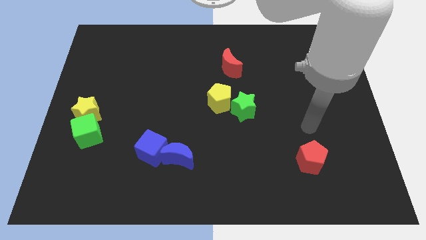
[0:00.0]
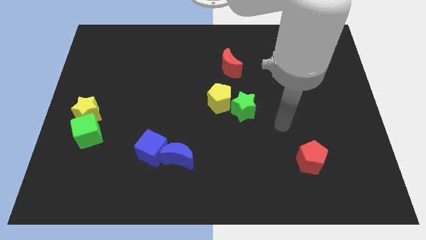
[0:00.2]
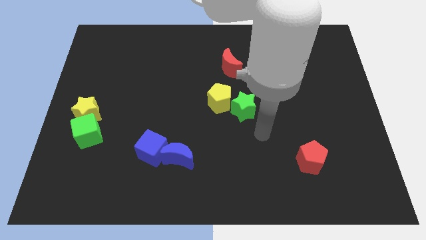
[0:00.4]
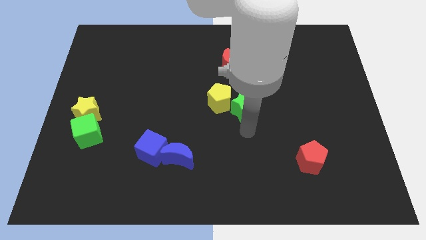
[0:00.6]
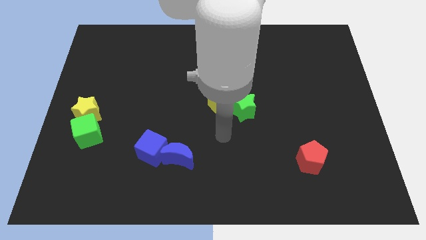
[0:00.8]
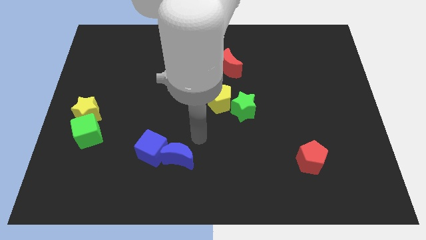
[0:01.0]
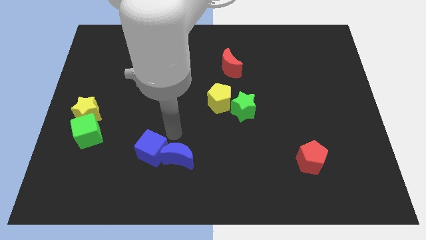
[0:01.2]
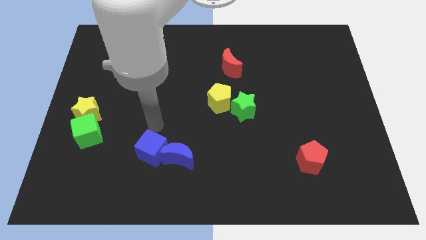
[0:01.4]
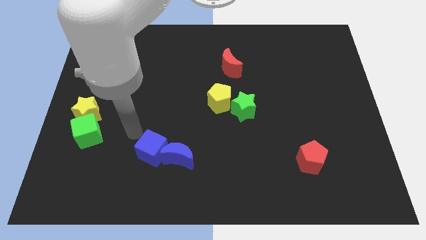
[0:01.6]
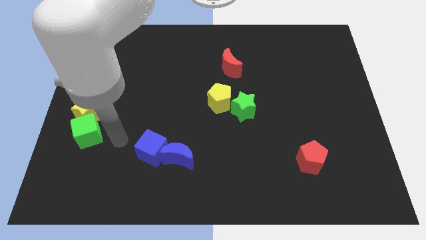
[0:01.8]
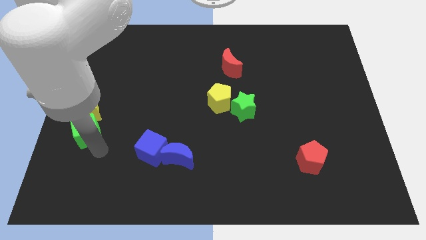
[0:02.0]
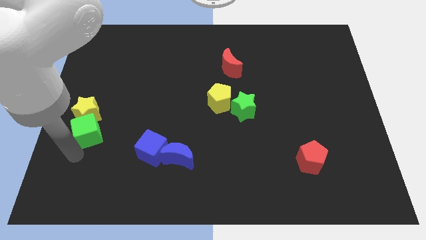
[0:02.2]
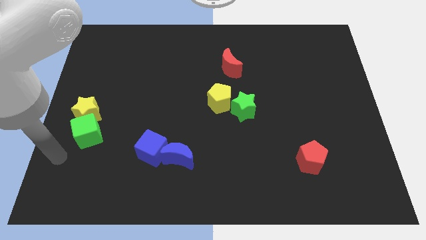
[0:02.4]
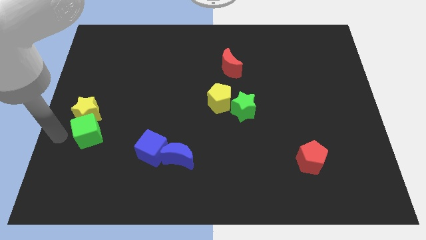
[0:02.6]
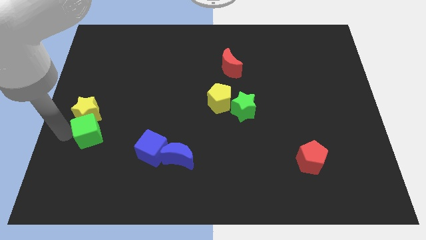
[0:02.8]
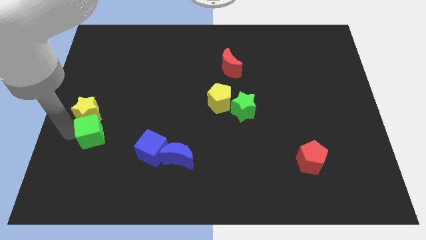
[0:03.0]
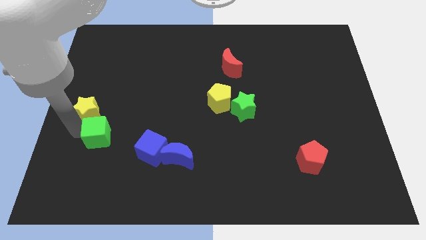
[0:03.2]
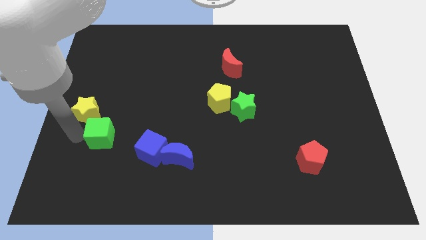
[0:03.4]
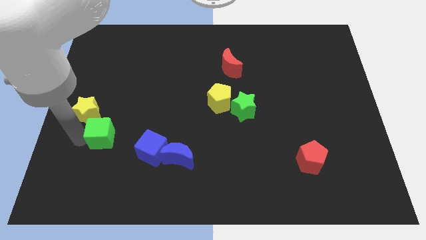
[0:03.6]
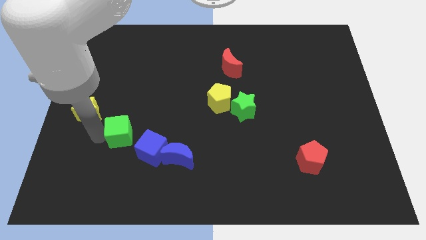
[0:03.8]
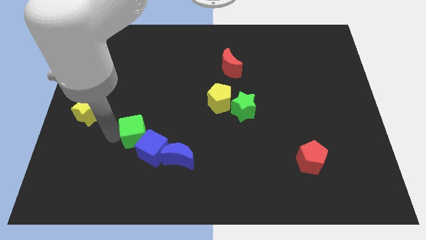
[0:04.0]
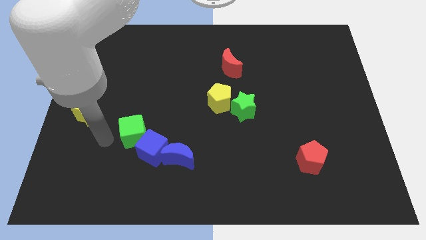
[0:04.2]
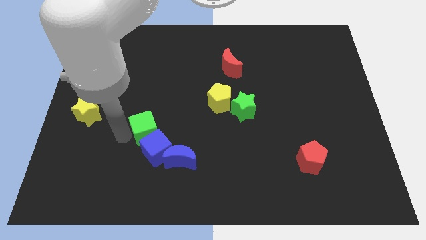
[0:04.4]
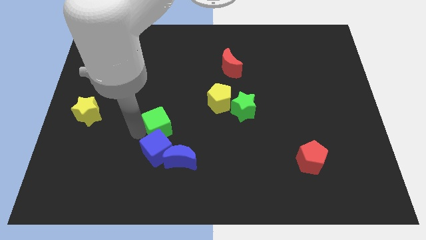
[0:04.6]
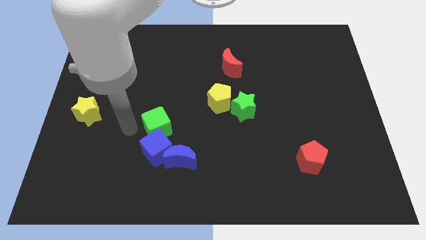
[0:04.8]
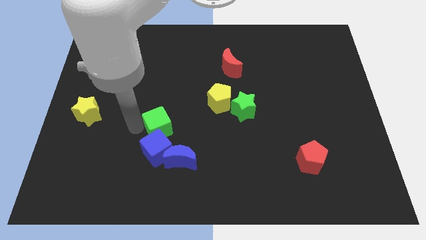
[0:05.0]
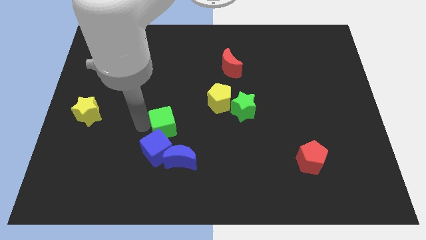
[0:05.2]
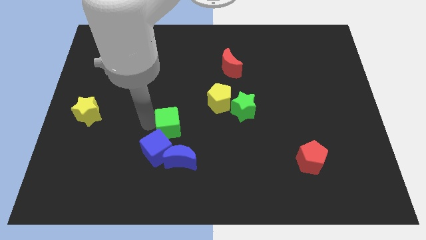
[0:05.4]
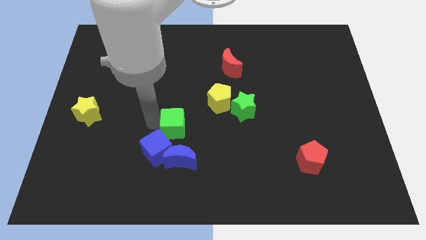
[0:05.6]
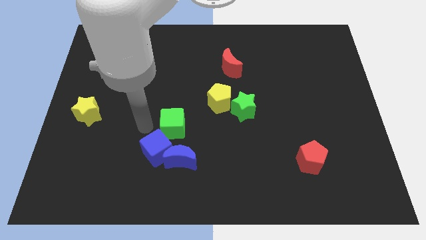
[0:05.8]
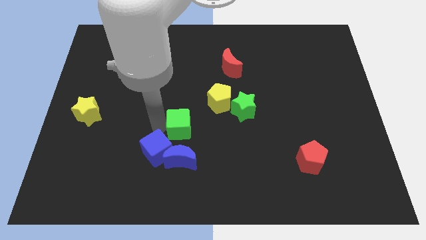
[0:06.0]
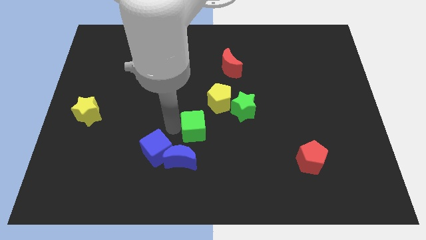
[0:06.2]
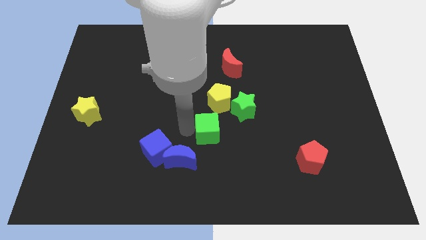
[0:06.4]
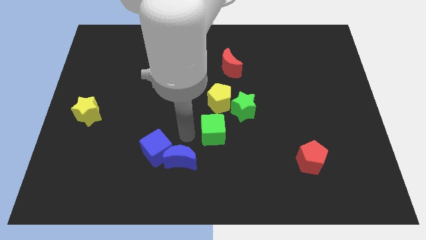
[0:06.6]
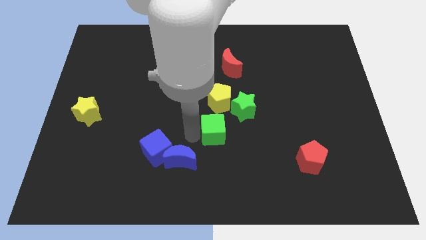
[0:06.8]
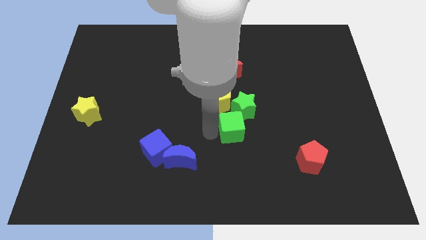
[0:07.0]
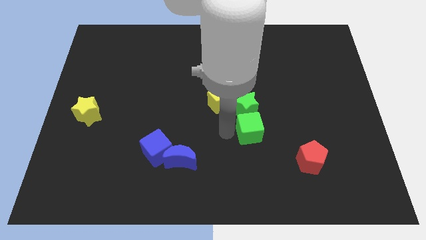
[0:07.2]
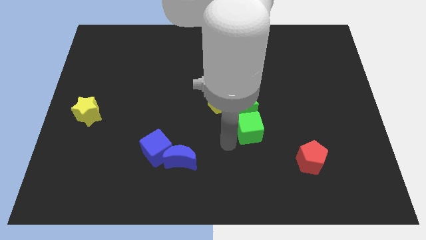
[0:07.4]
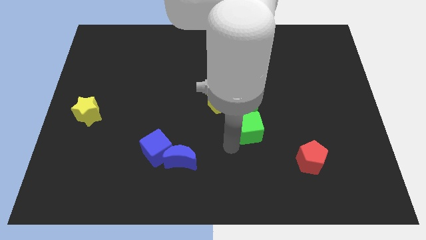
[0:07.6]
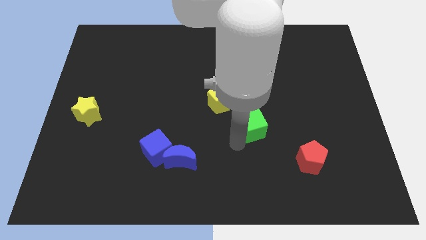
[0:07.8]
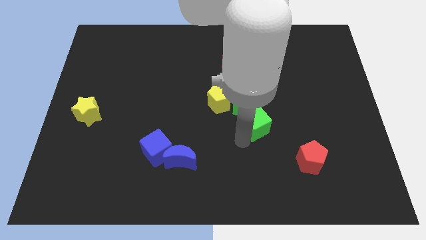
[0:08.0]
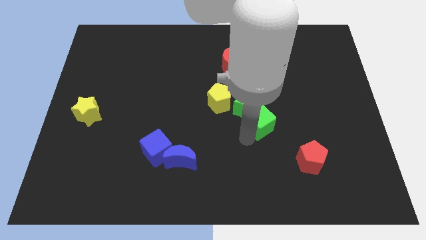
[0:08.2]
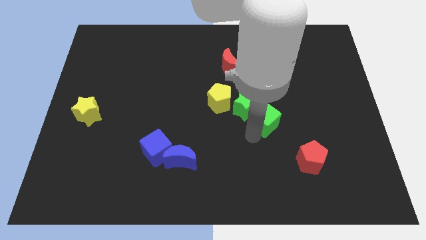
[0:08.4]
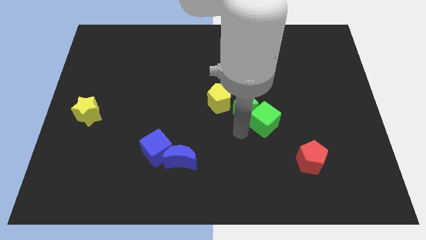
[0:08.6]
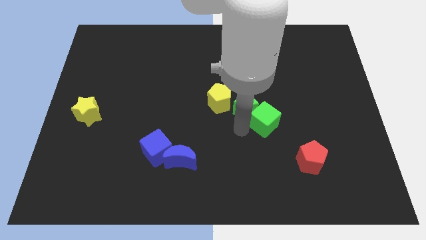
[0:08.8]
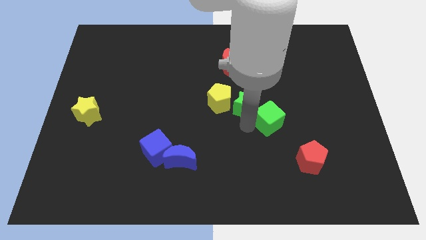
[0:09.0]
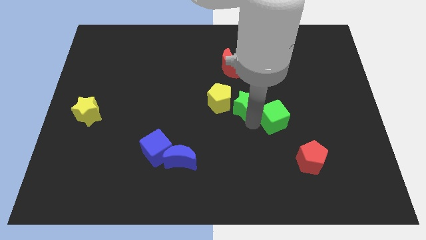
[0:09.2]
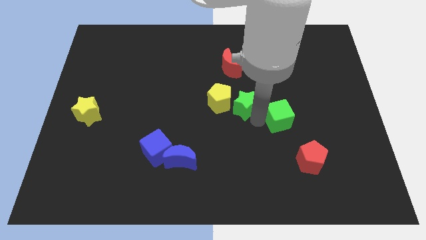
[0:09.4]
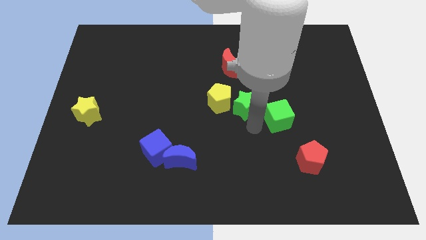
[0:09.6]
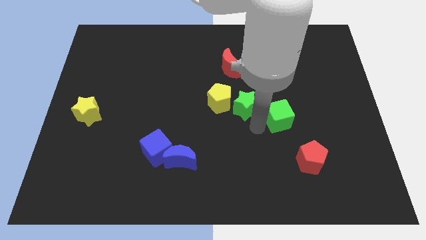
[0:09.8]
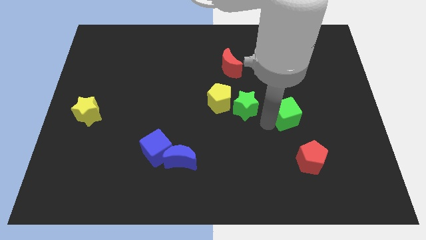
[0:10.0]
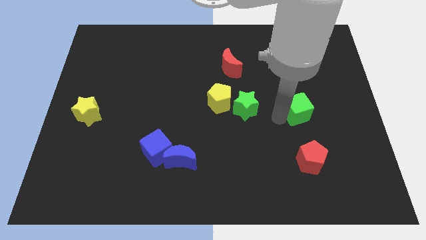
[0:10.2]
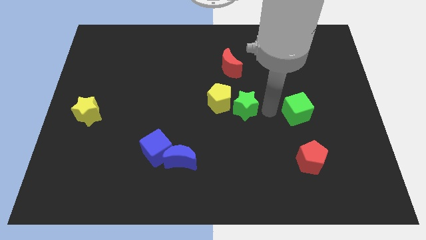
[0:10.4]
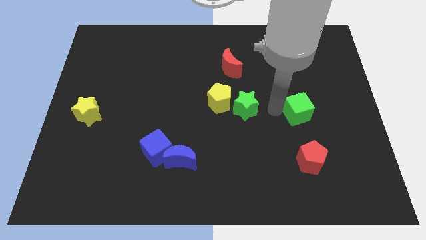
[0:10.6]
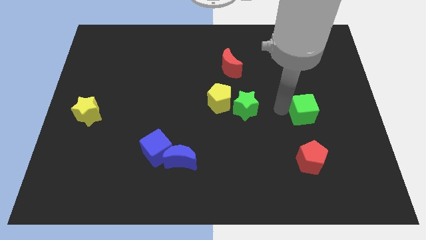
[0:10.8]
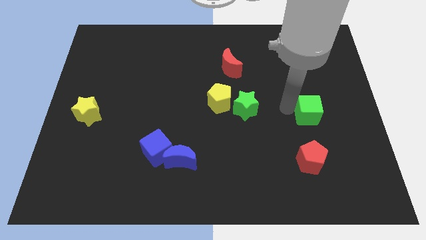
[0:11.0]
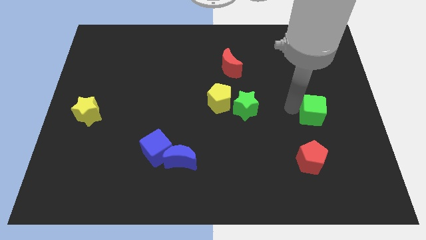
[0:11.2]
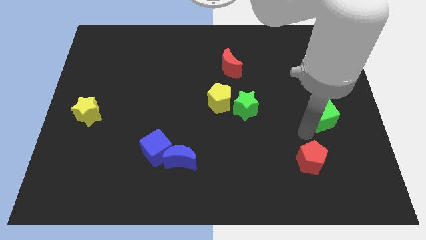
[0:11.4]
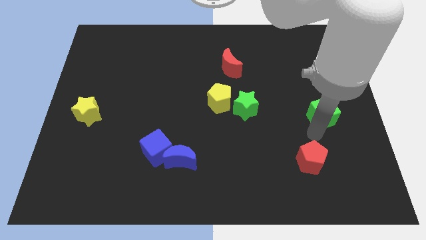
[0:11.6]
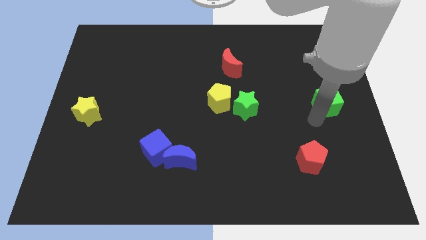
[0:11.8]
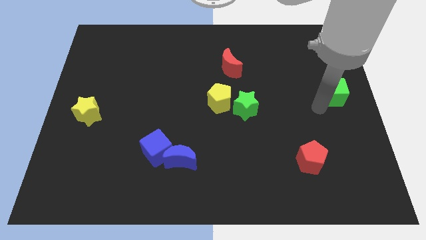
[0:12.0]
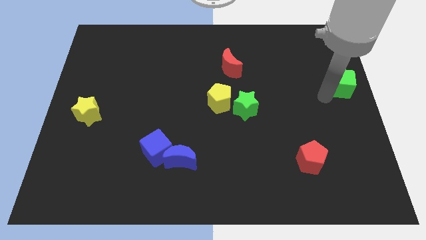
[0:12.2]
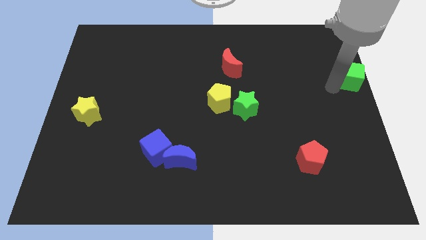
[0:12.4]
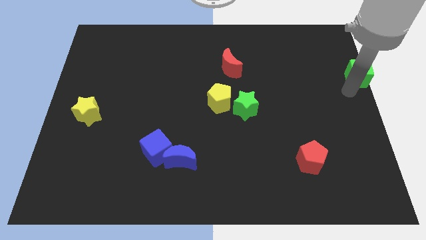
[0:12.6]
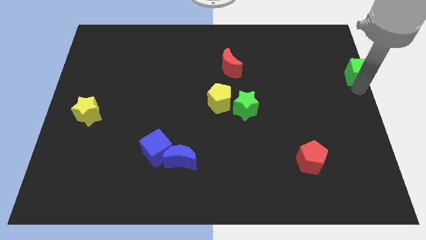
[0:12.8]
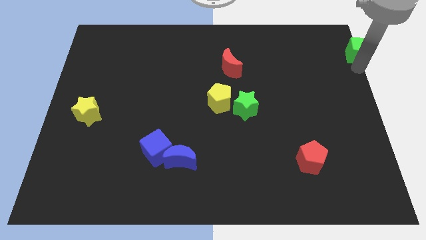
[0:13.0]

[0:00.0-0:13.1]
slide the green cube to the top right corner

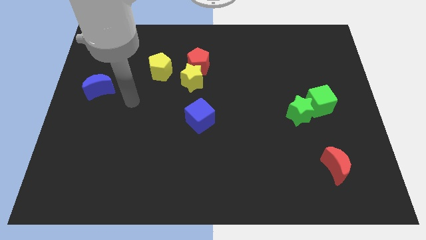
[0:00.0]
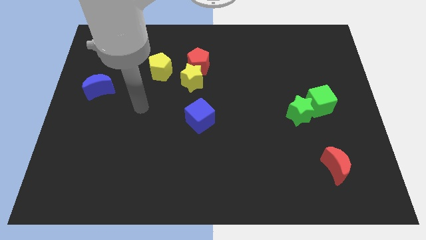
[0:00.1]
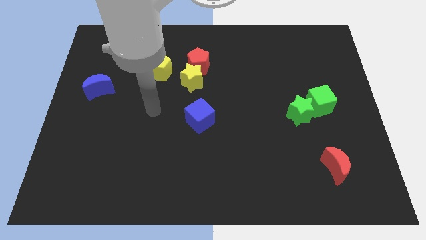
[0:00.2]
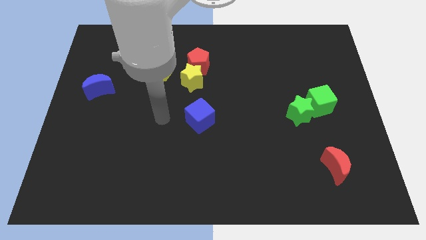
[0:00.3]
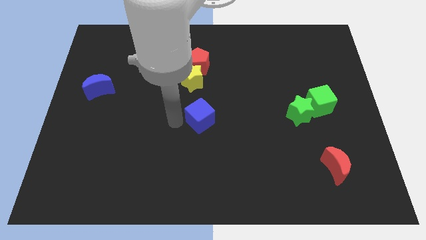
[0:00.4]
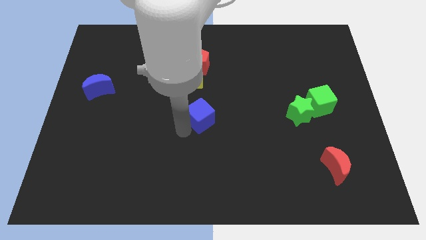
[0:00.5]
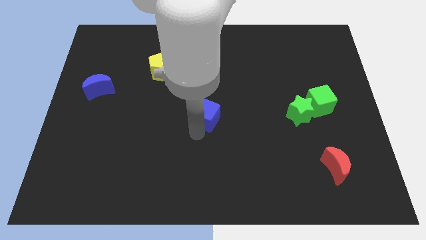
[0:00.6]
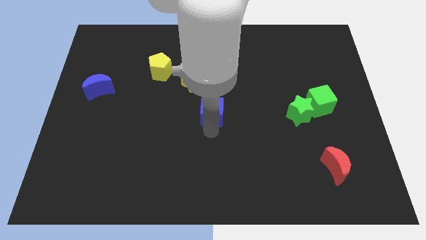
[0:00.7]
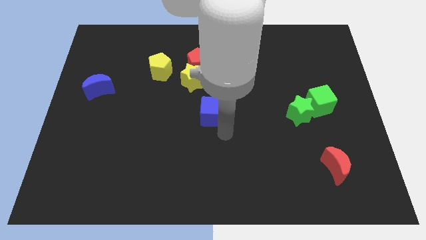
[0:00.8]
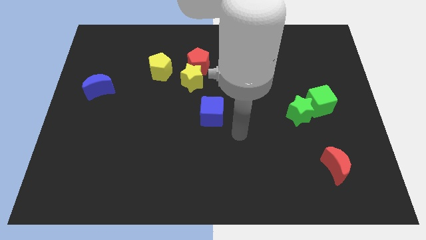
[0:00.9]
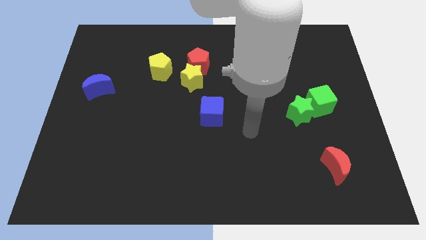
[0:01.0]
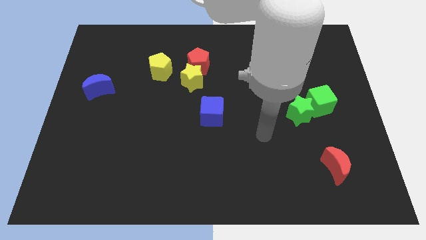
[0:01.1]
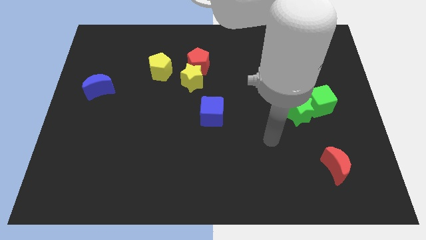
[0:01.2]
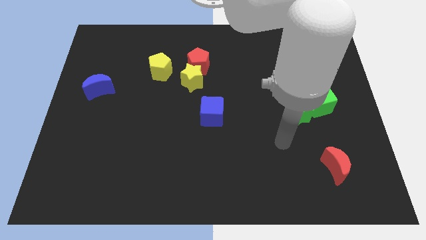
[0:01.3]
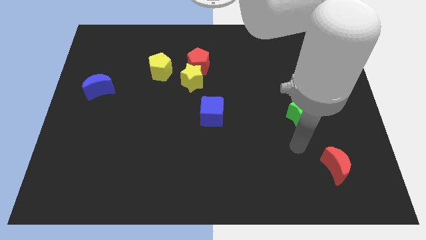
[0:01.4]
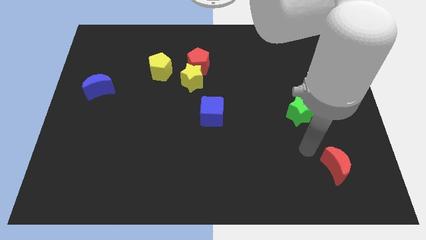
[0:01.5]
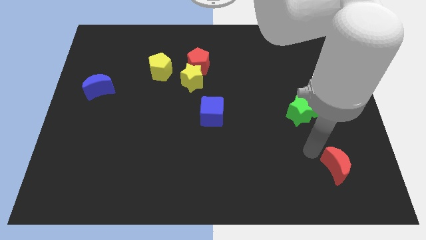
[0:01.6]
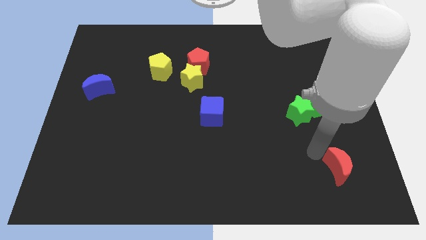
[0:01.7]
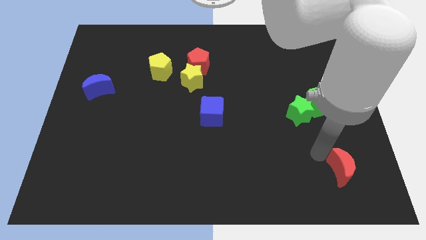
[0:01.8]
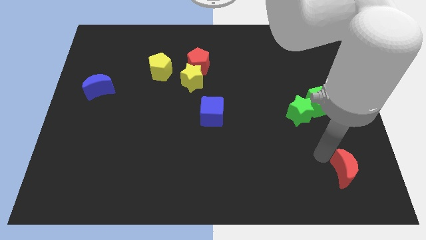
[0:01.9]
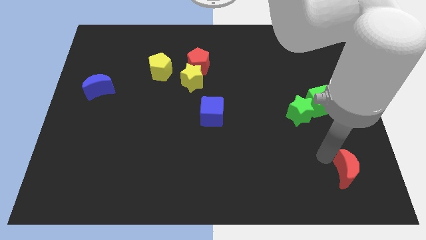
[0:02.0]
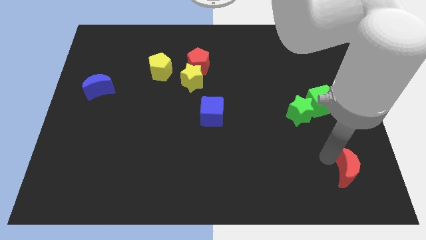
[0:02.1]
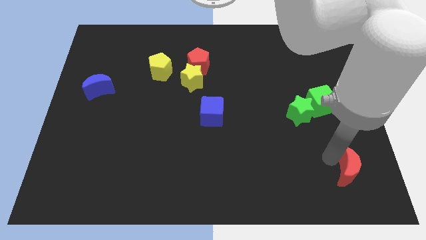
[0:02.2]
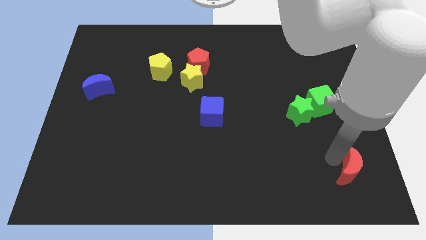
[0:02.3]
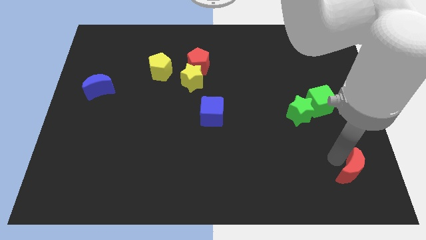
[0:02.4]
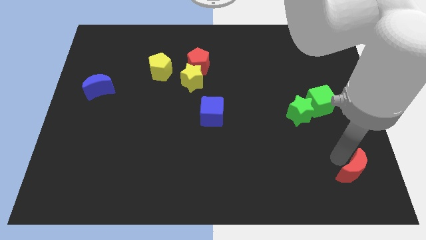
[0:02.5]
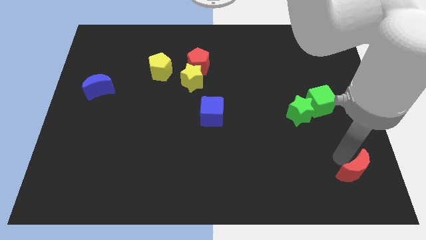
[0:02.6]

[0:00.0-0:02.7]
put the red moon to the lower right corner
